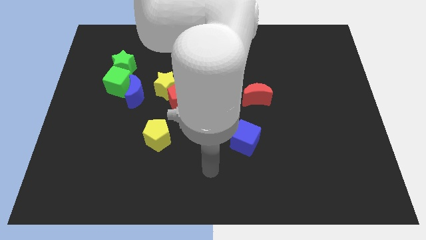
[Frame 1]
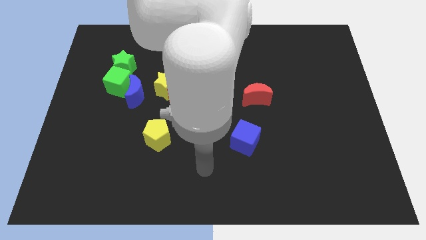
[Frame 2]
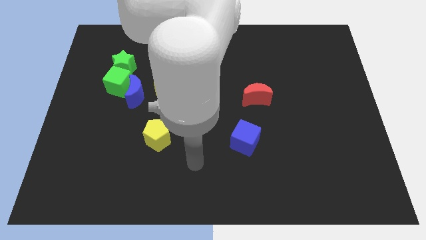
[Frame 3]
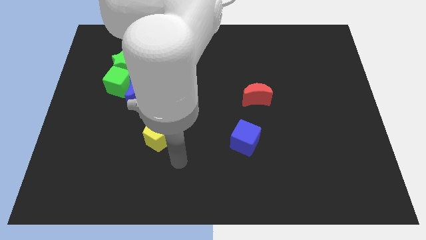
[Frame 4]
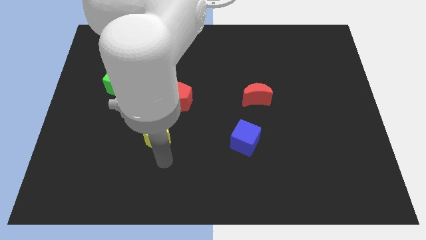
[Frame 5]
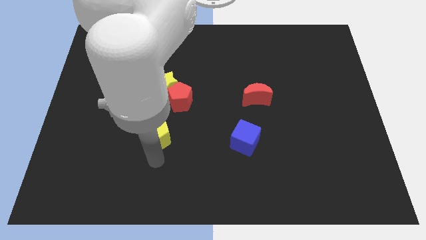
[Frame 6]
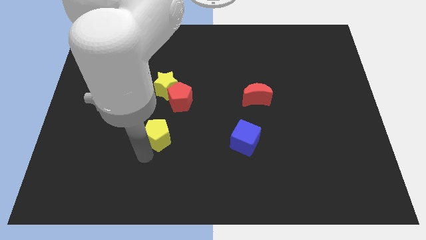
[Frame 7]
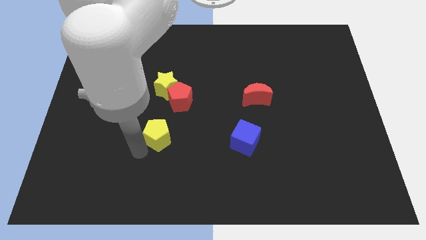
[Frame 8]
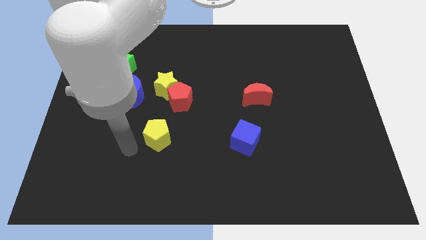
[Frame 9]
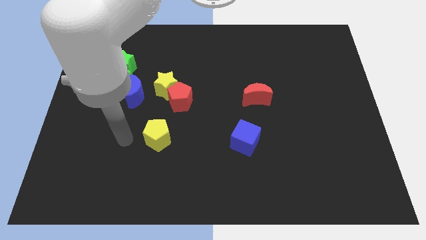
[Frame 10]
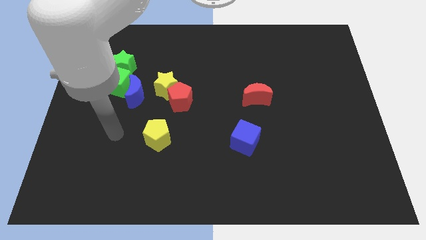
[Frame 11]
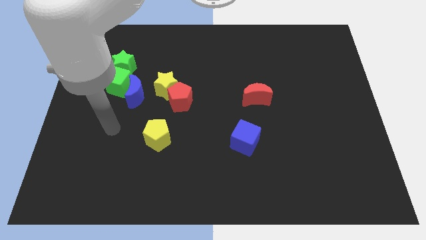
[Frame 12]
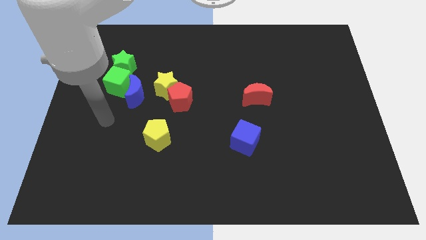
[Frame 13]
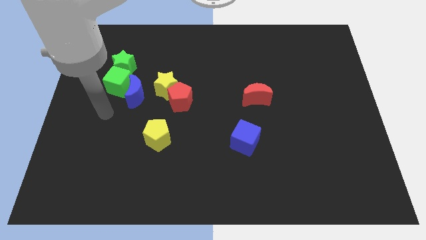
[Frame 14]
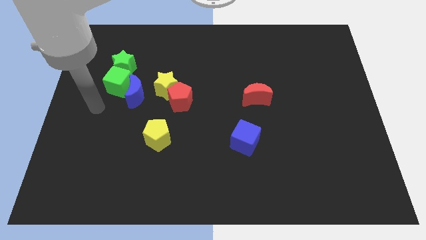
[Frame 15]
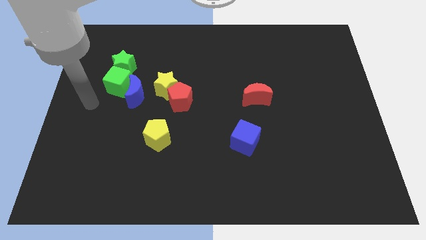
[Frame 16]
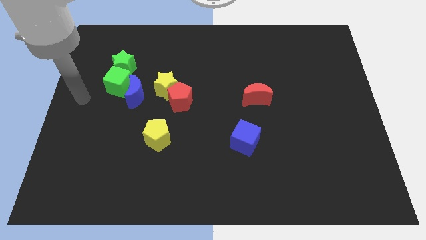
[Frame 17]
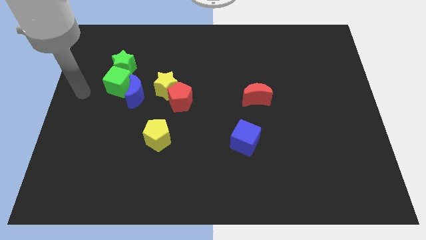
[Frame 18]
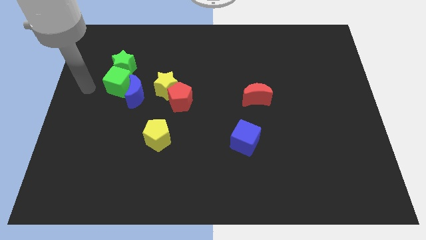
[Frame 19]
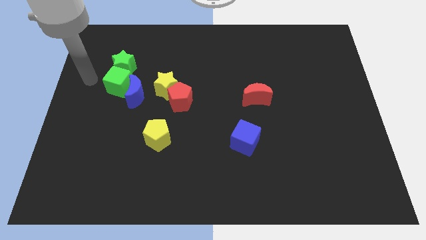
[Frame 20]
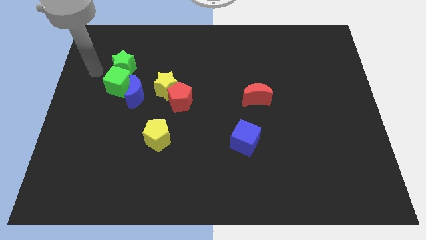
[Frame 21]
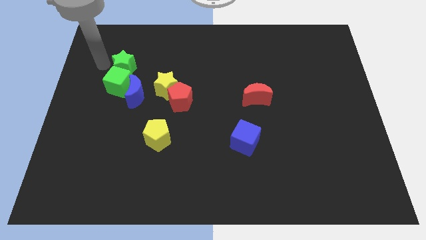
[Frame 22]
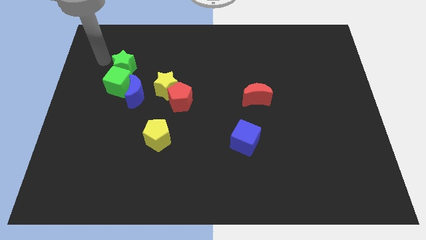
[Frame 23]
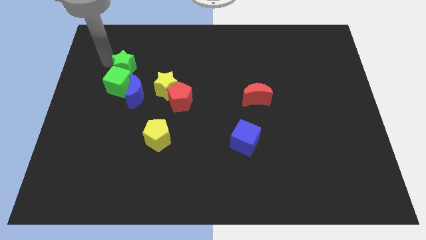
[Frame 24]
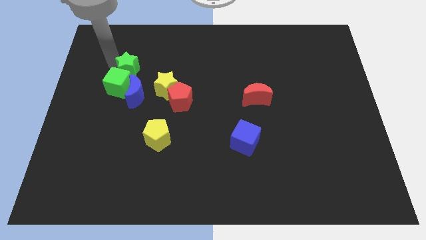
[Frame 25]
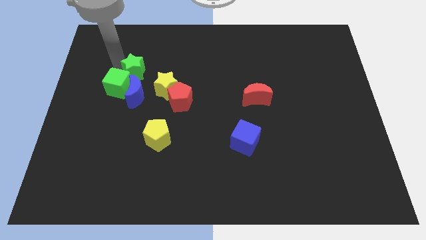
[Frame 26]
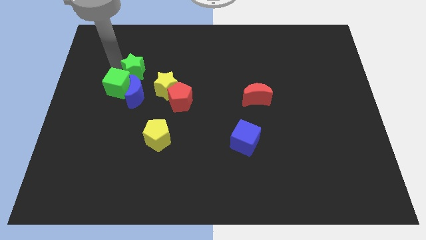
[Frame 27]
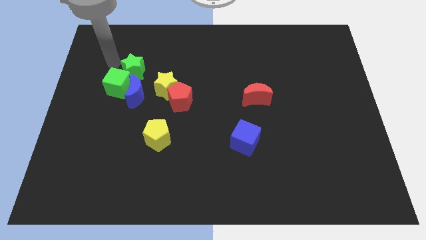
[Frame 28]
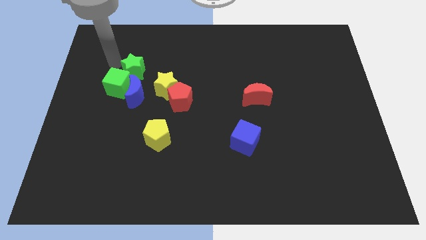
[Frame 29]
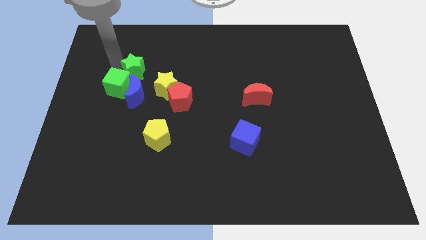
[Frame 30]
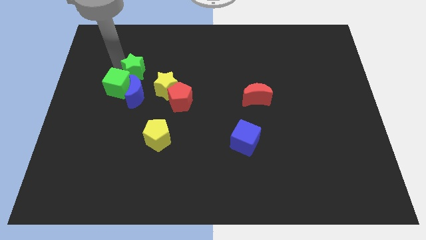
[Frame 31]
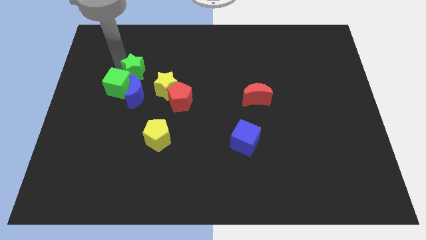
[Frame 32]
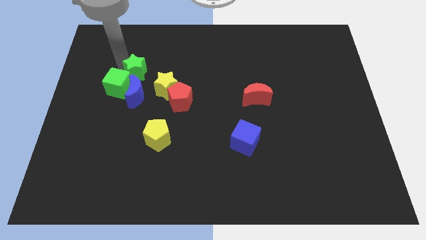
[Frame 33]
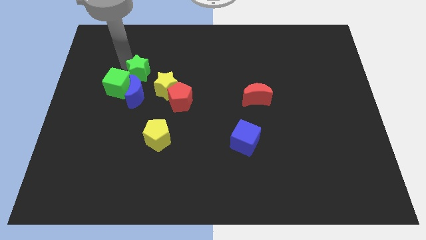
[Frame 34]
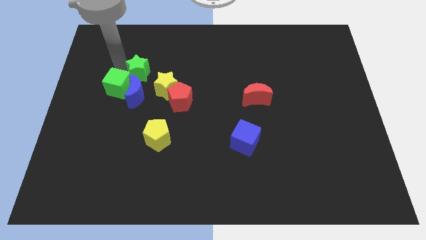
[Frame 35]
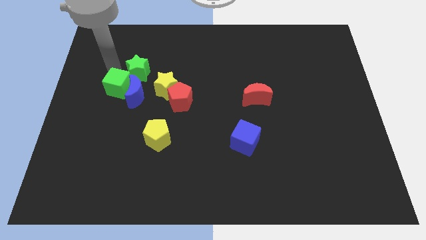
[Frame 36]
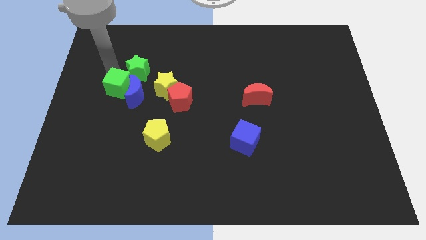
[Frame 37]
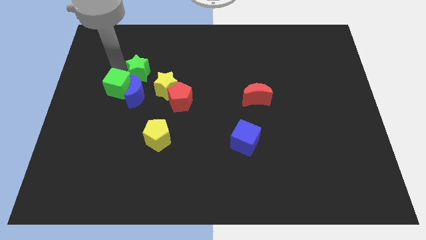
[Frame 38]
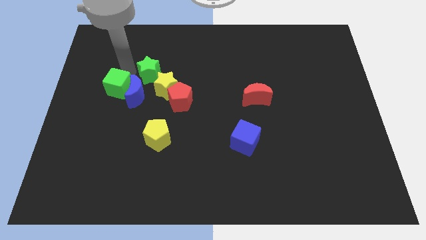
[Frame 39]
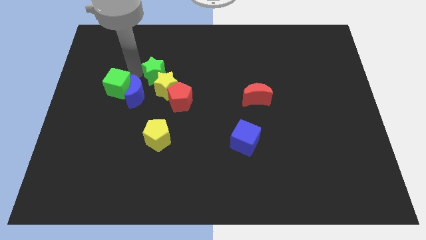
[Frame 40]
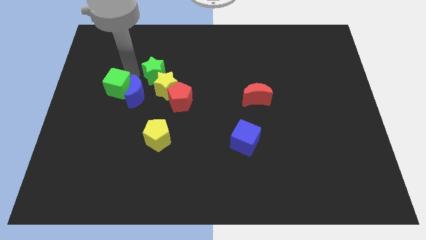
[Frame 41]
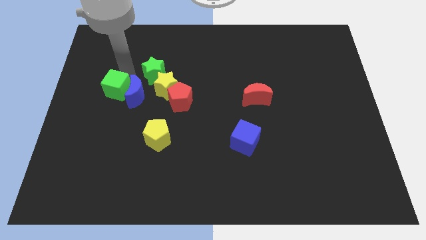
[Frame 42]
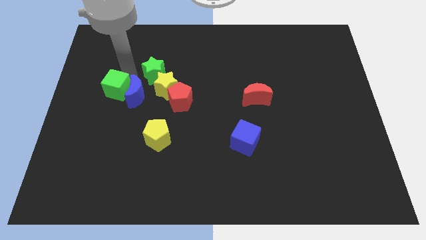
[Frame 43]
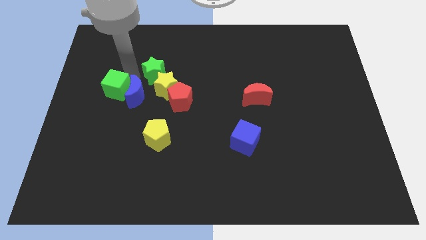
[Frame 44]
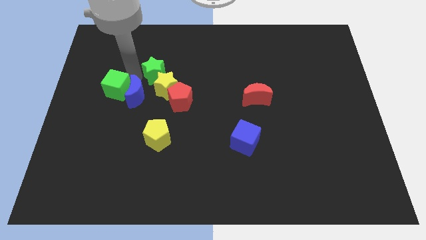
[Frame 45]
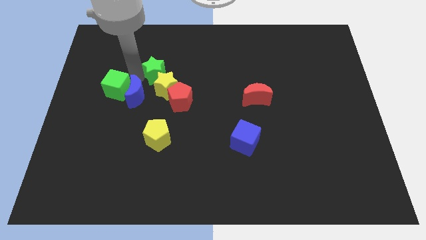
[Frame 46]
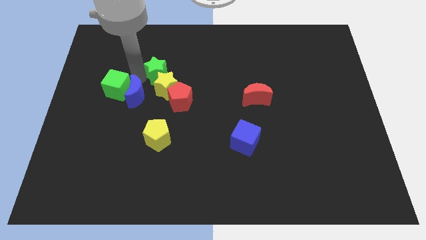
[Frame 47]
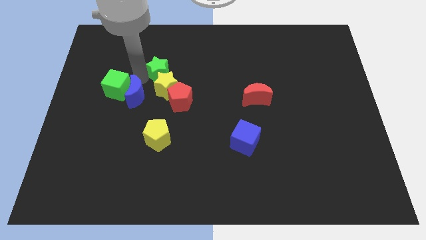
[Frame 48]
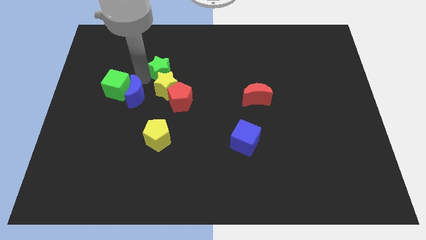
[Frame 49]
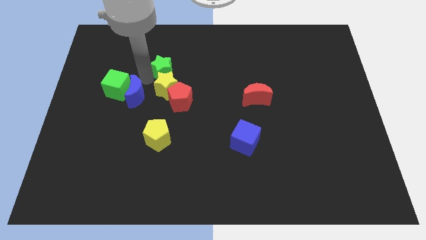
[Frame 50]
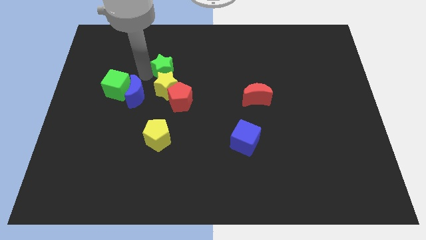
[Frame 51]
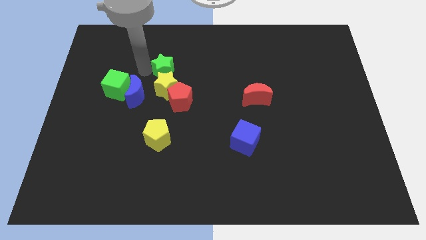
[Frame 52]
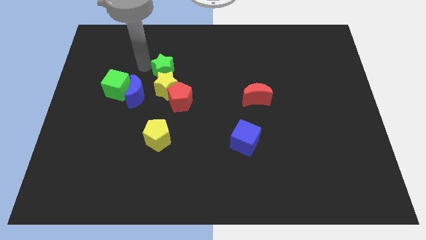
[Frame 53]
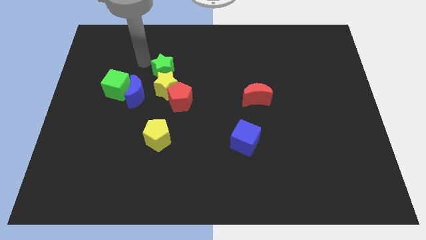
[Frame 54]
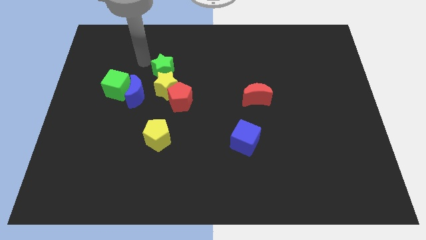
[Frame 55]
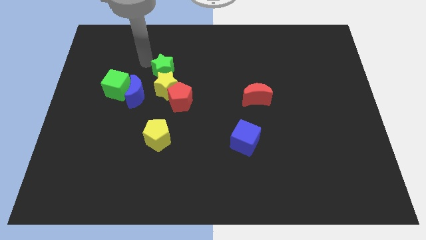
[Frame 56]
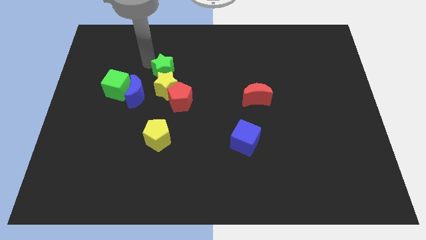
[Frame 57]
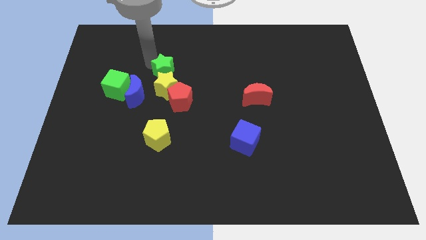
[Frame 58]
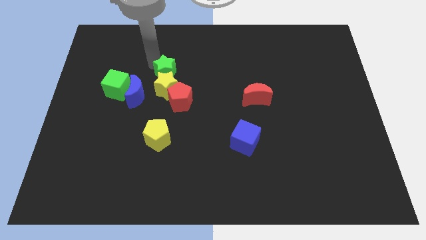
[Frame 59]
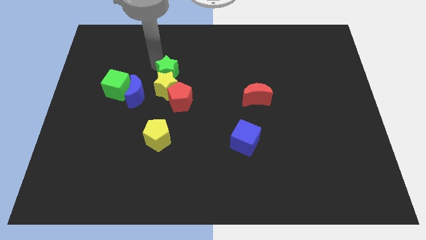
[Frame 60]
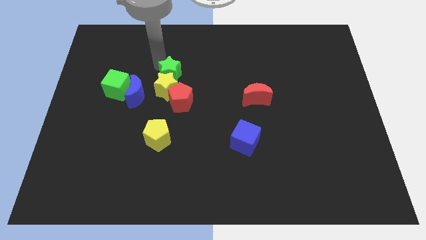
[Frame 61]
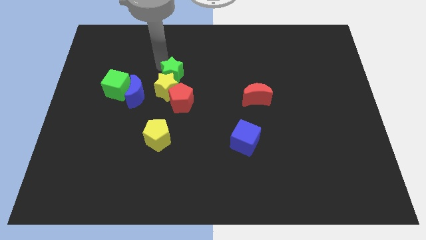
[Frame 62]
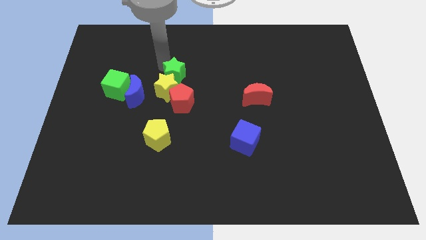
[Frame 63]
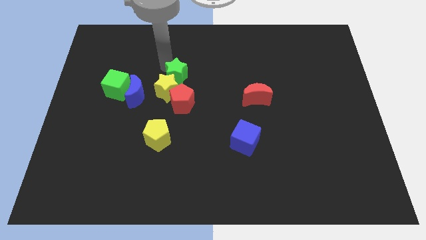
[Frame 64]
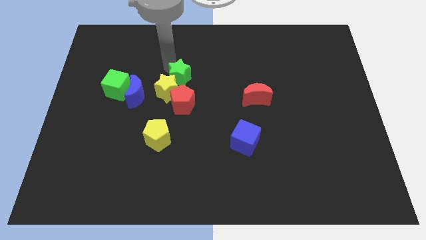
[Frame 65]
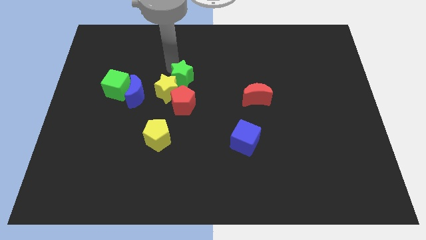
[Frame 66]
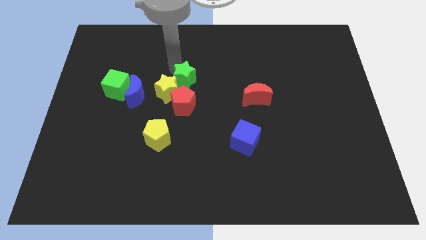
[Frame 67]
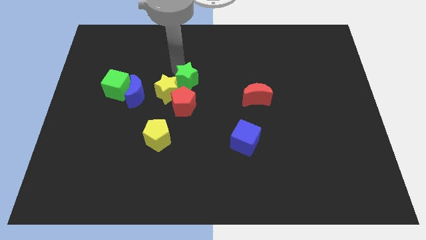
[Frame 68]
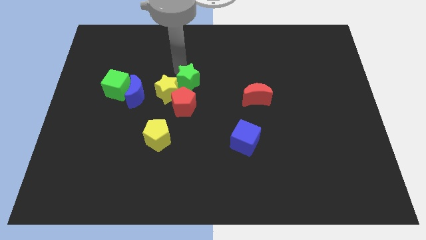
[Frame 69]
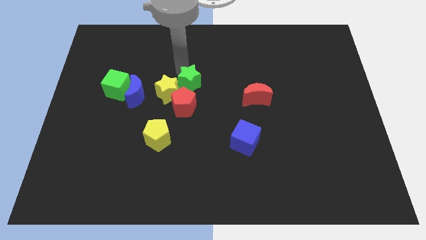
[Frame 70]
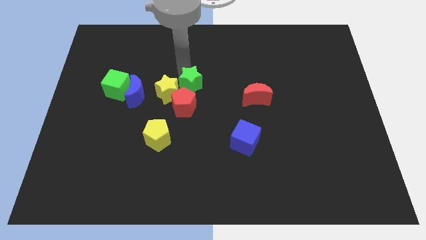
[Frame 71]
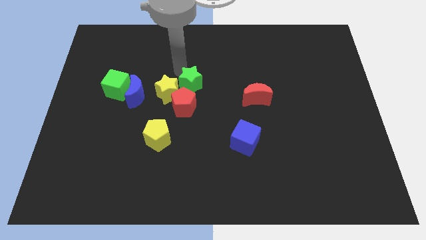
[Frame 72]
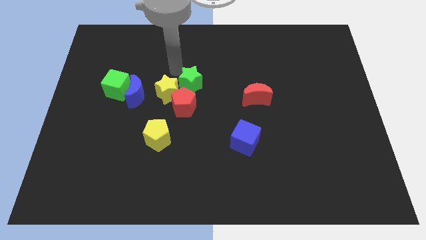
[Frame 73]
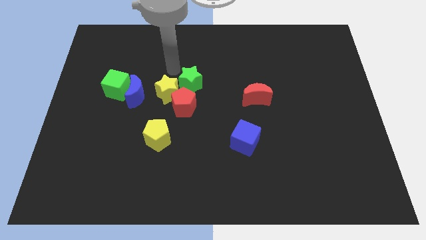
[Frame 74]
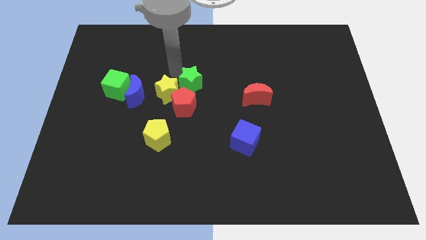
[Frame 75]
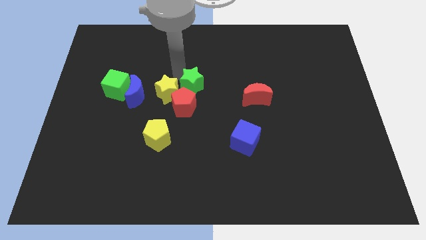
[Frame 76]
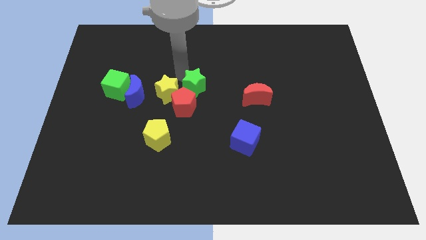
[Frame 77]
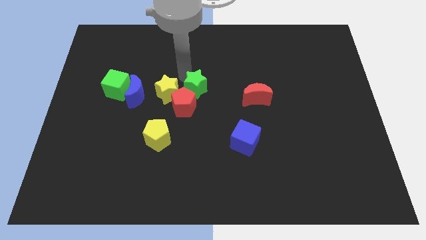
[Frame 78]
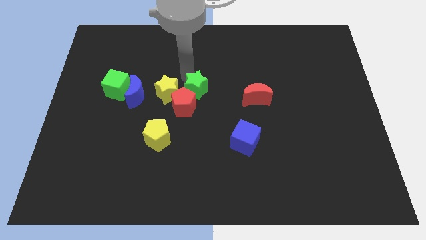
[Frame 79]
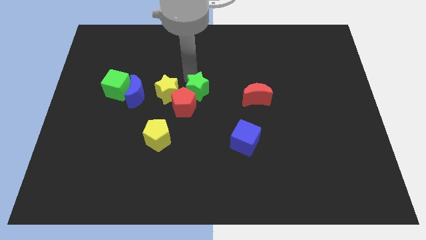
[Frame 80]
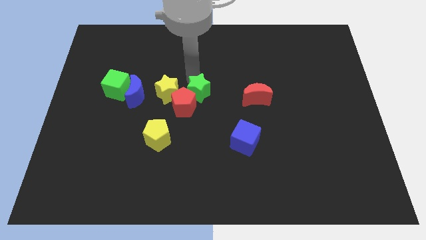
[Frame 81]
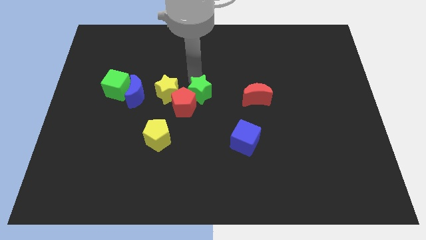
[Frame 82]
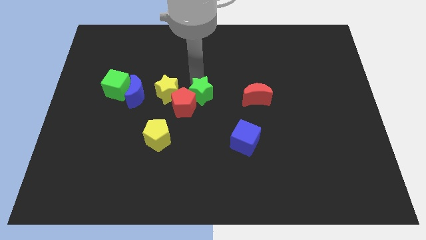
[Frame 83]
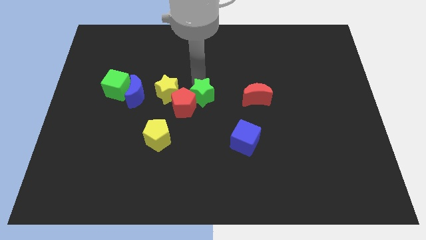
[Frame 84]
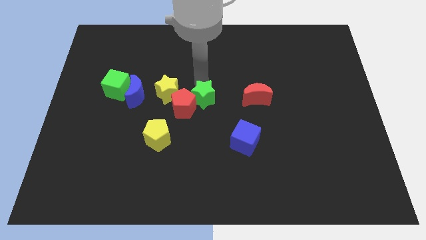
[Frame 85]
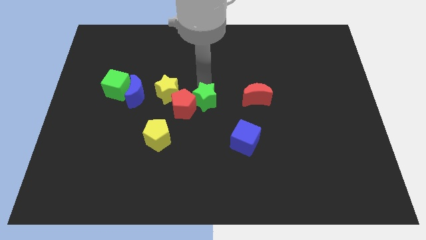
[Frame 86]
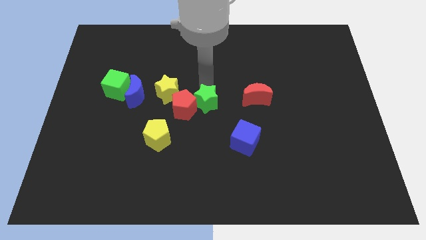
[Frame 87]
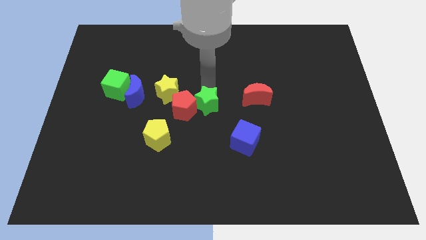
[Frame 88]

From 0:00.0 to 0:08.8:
put the green star to the bottom right of the red pentagon
